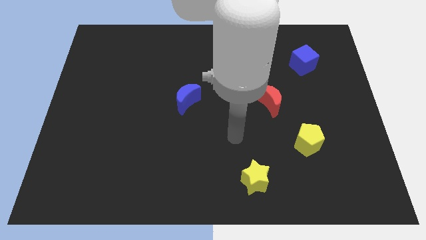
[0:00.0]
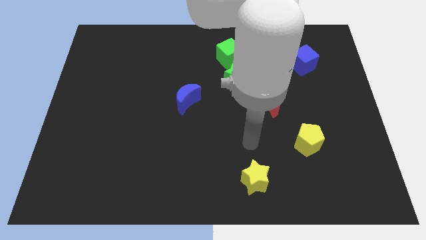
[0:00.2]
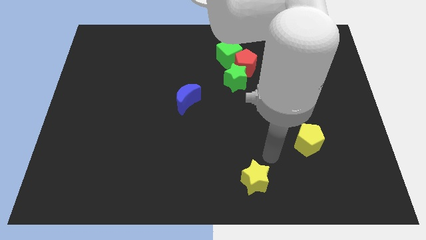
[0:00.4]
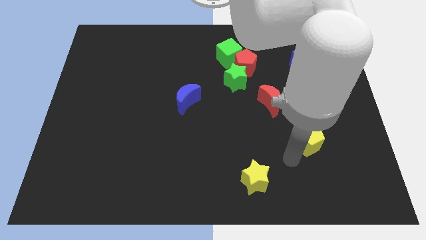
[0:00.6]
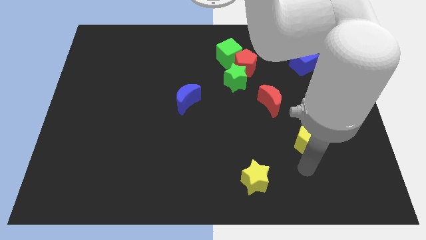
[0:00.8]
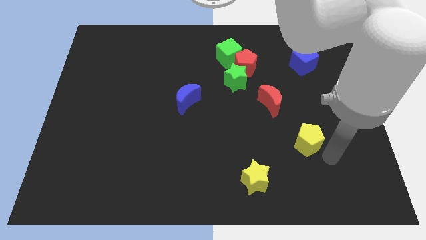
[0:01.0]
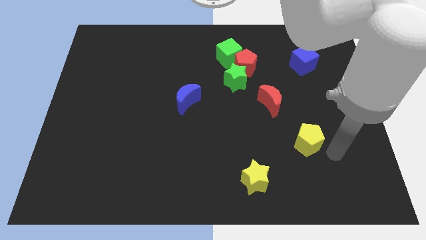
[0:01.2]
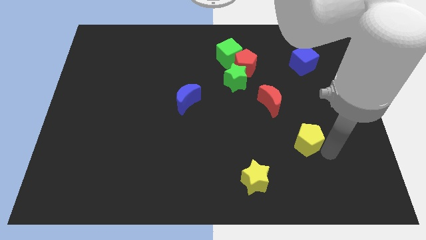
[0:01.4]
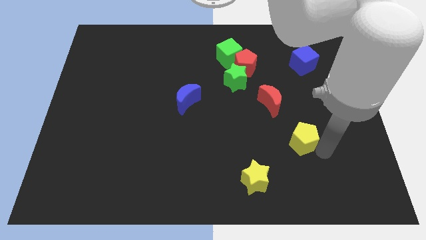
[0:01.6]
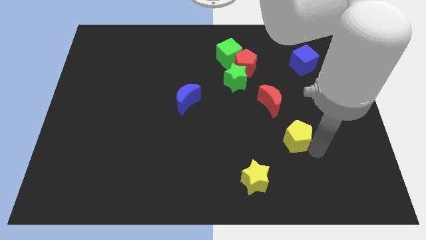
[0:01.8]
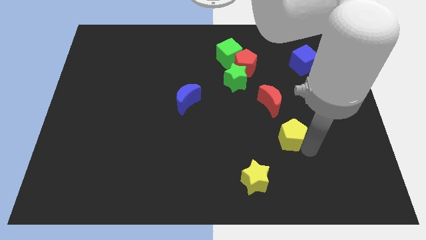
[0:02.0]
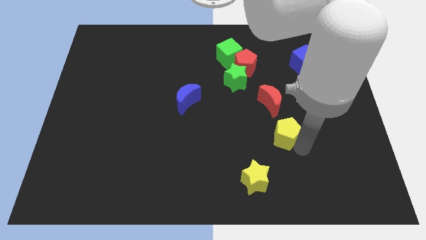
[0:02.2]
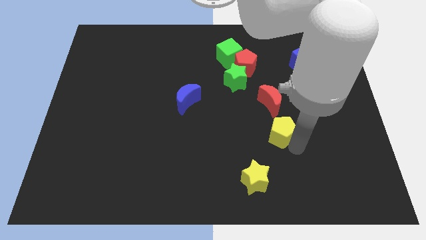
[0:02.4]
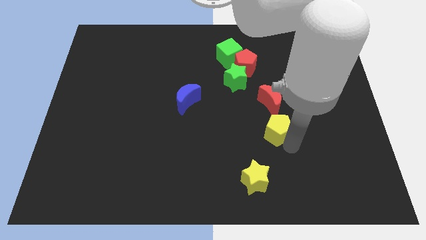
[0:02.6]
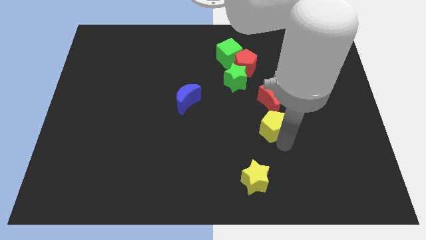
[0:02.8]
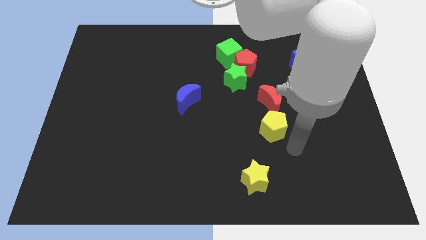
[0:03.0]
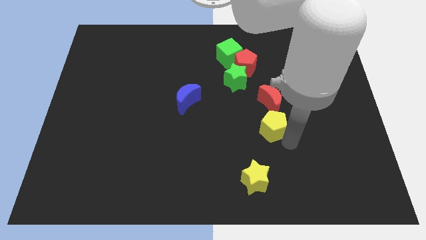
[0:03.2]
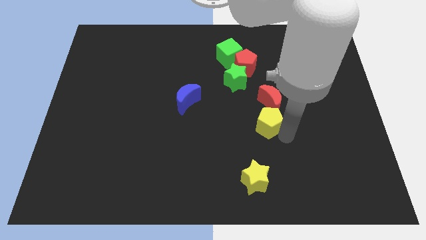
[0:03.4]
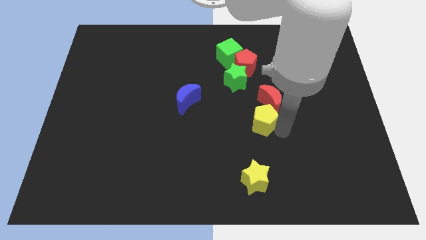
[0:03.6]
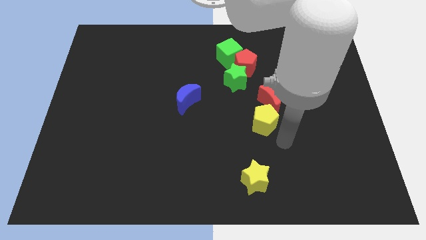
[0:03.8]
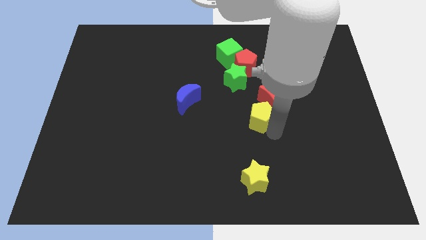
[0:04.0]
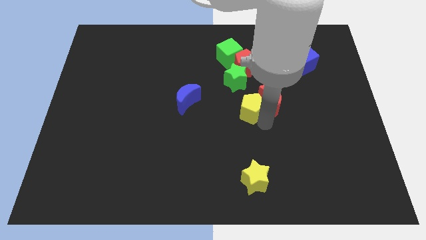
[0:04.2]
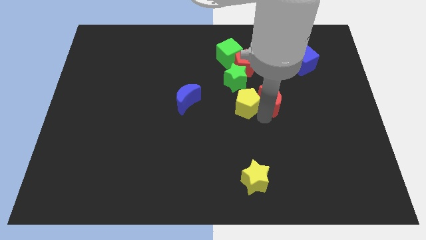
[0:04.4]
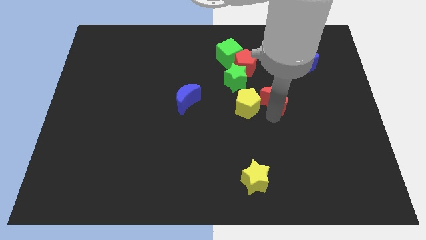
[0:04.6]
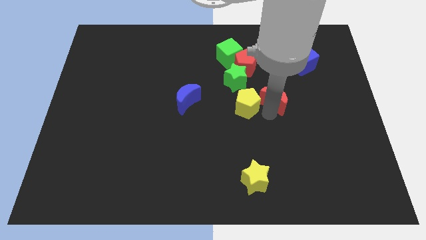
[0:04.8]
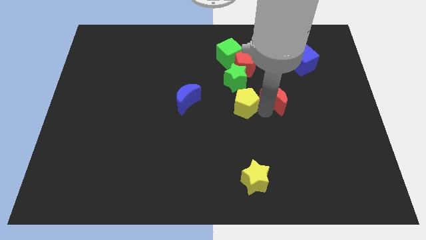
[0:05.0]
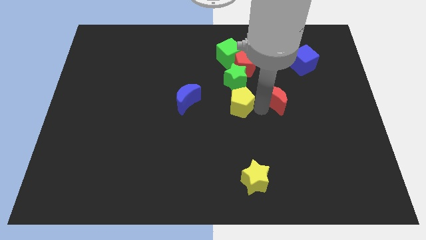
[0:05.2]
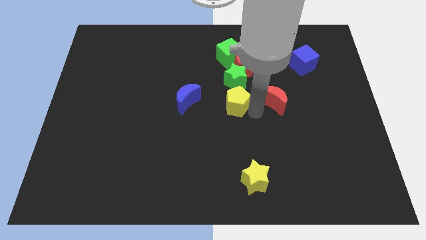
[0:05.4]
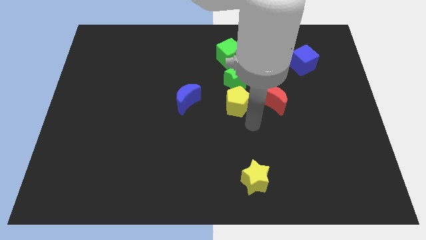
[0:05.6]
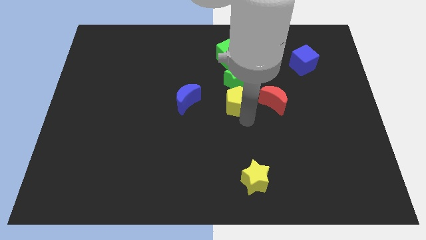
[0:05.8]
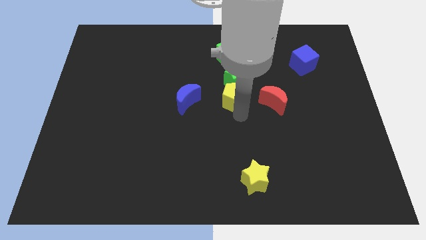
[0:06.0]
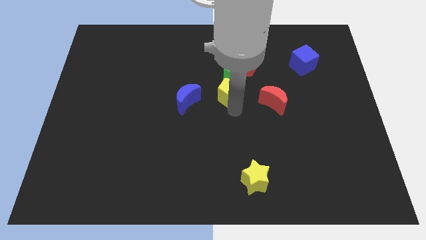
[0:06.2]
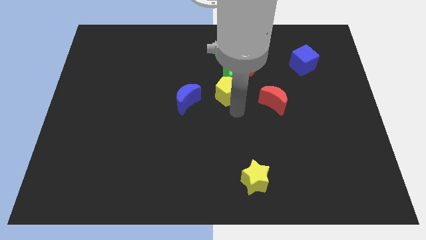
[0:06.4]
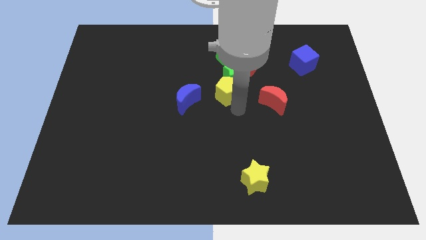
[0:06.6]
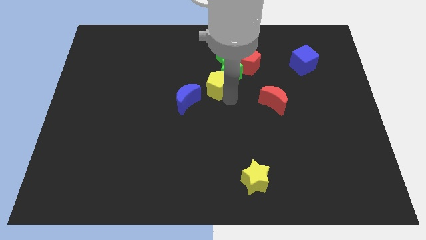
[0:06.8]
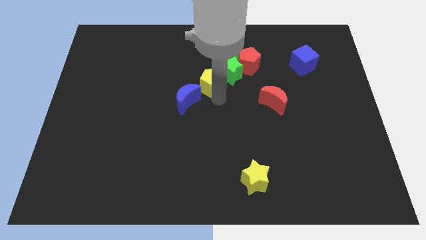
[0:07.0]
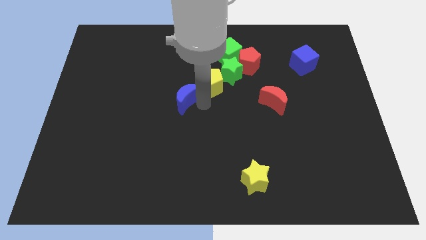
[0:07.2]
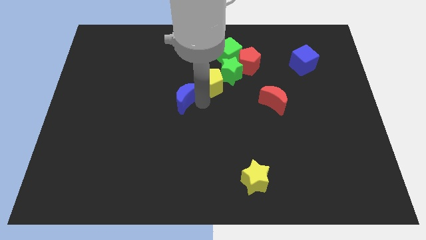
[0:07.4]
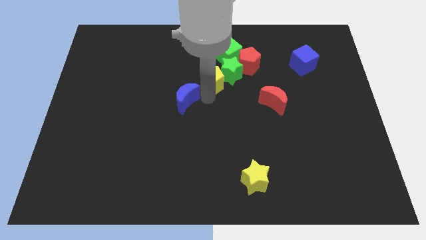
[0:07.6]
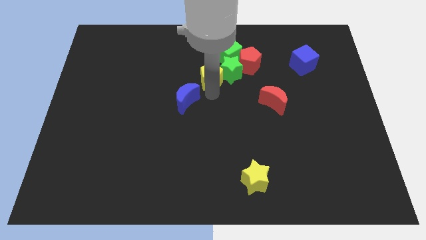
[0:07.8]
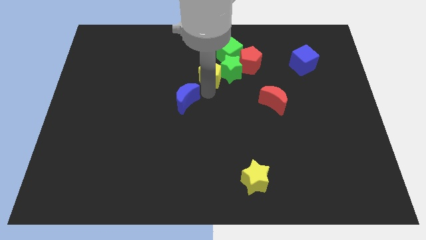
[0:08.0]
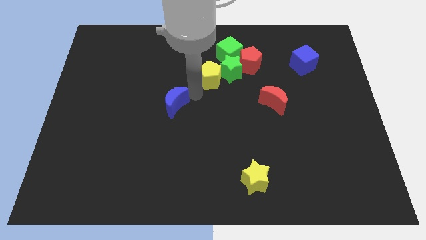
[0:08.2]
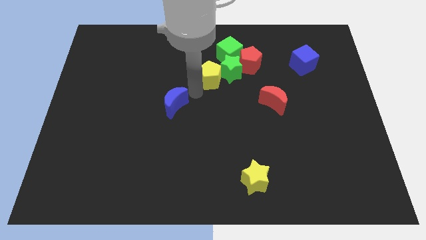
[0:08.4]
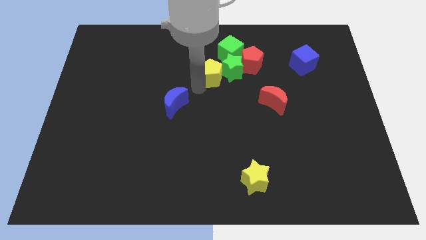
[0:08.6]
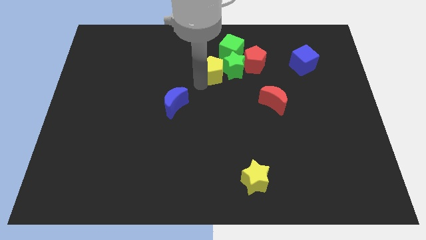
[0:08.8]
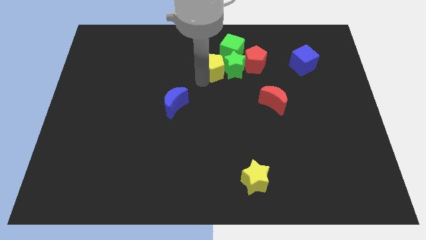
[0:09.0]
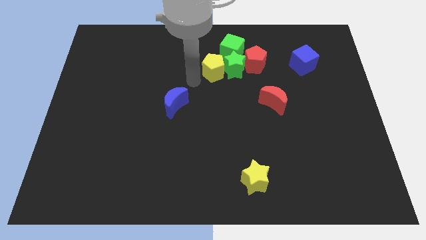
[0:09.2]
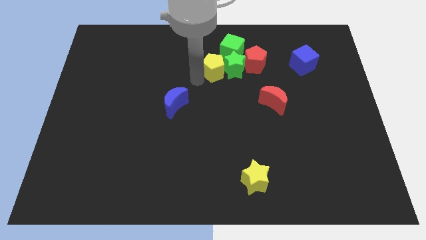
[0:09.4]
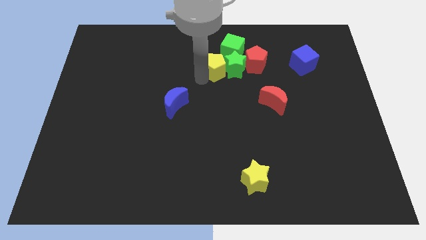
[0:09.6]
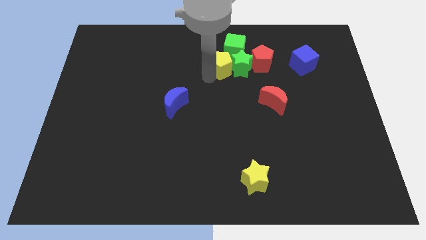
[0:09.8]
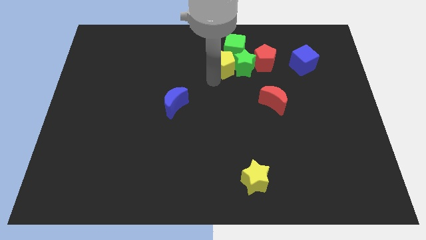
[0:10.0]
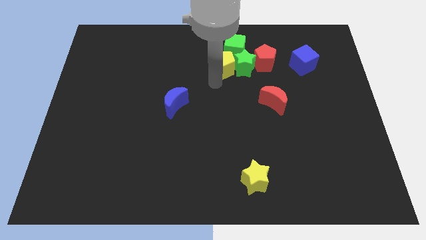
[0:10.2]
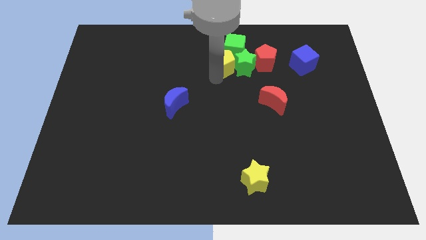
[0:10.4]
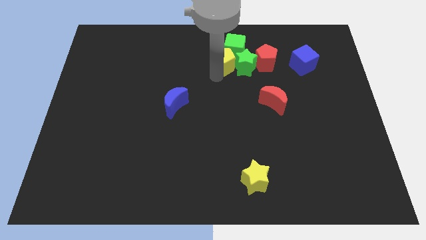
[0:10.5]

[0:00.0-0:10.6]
slide the yellow pentagon next to the green cube

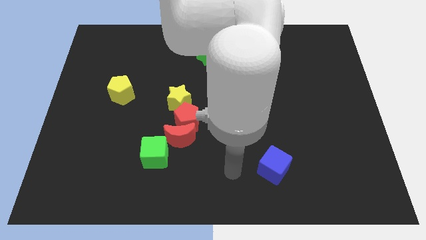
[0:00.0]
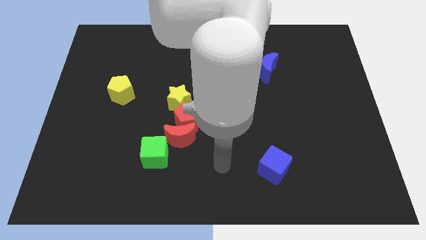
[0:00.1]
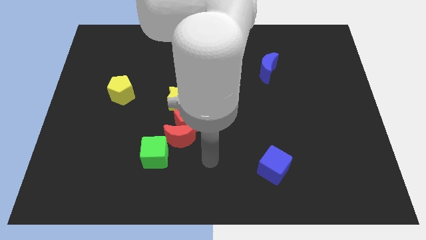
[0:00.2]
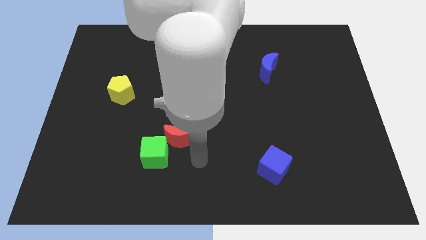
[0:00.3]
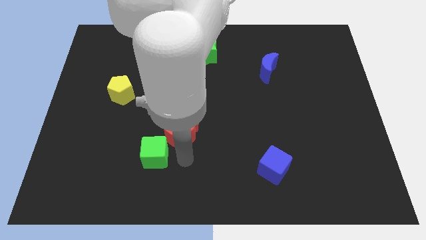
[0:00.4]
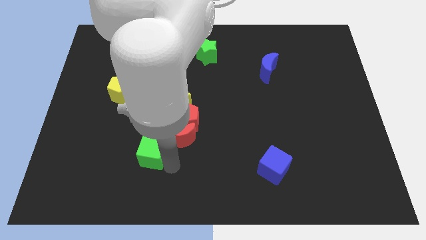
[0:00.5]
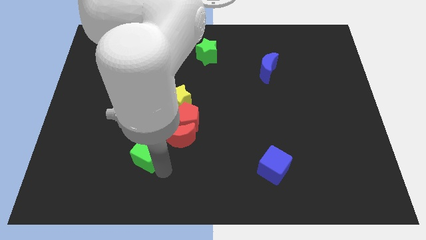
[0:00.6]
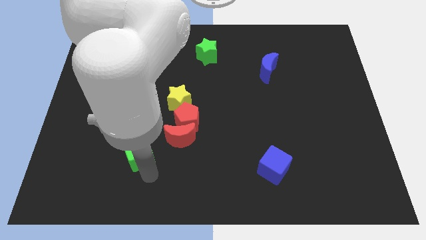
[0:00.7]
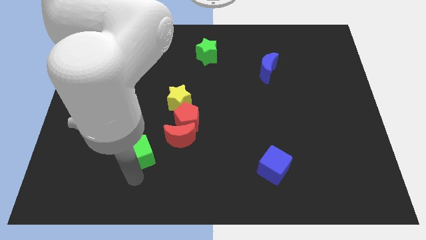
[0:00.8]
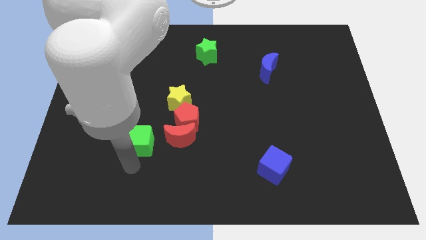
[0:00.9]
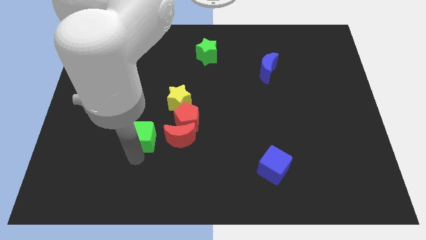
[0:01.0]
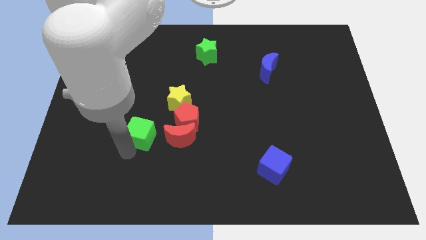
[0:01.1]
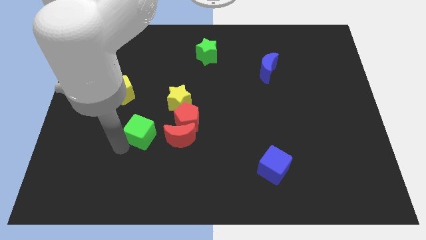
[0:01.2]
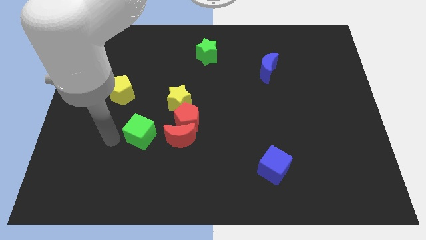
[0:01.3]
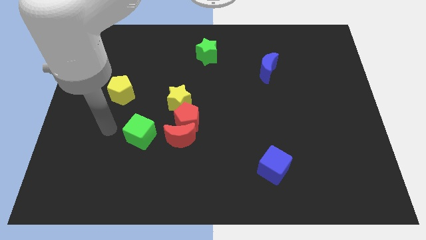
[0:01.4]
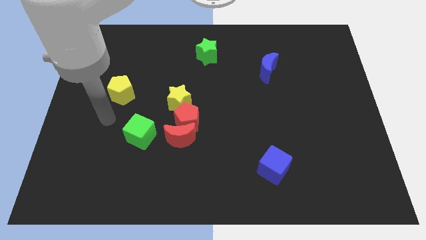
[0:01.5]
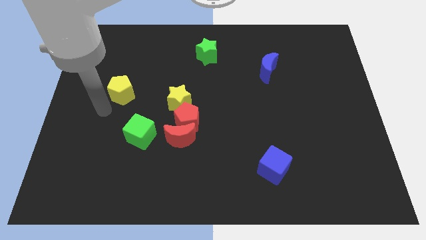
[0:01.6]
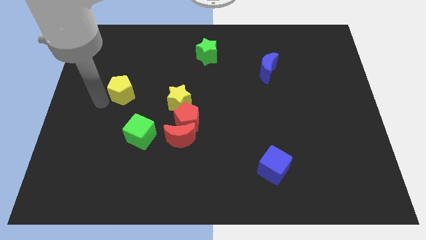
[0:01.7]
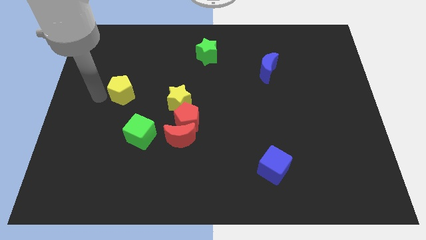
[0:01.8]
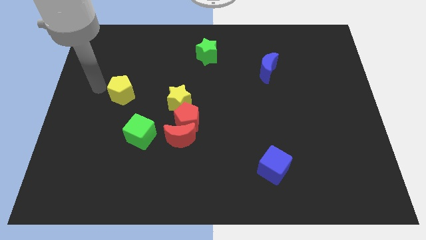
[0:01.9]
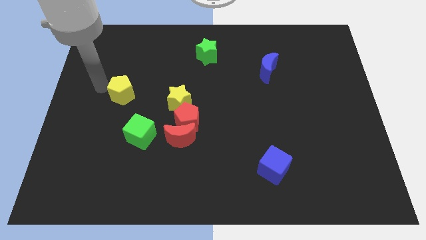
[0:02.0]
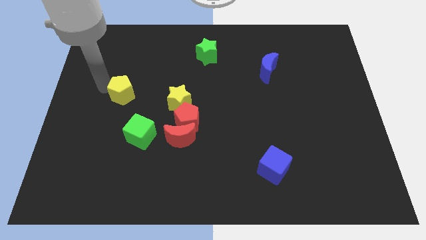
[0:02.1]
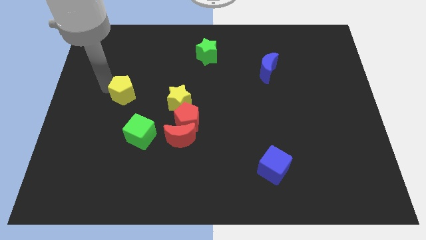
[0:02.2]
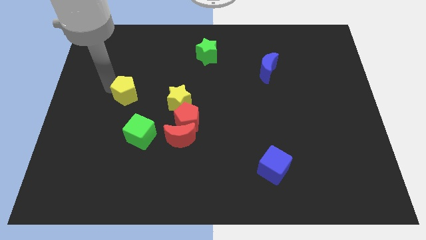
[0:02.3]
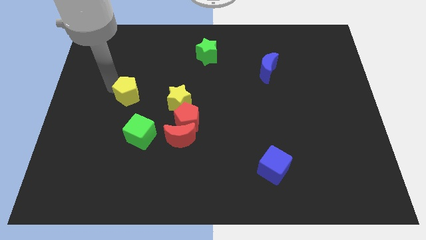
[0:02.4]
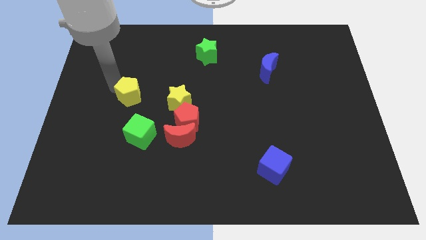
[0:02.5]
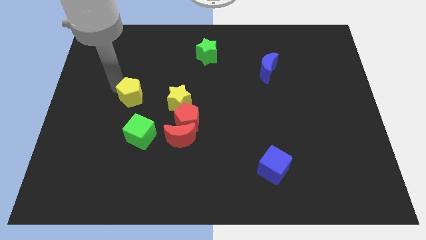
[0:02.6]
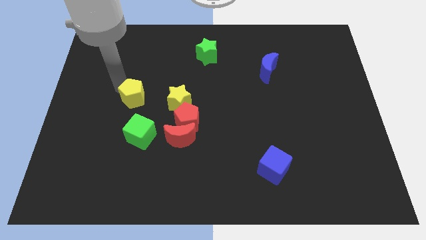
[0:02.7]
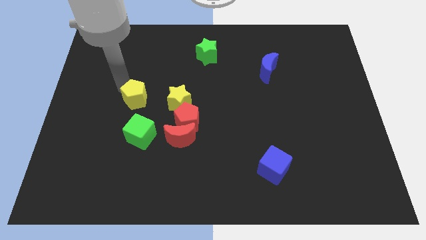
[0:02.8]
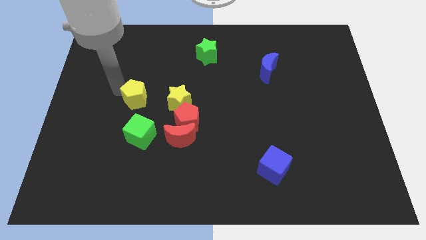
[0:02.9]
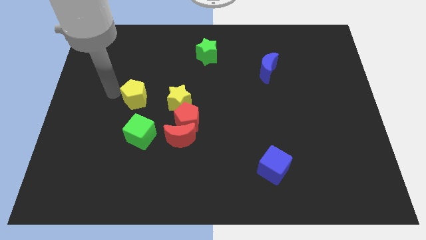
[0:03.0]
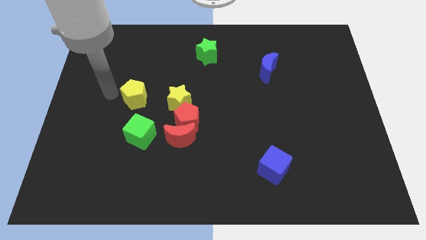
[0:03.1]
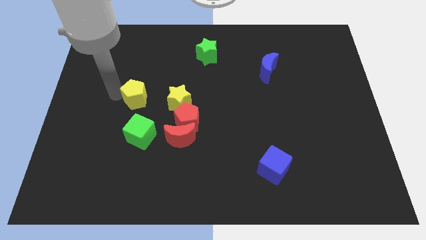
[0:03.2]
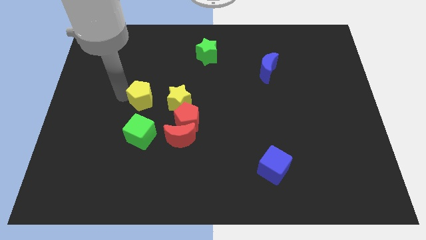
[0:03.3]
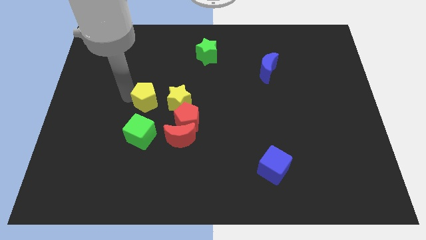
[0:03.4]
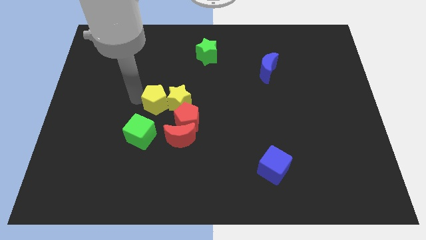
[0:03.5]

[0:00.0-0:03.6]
put the yellow pentagon next to the yellow star
